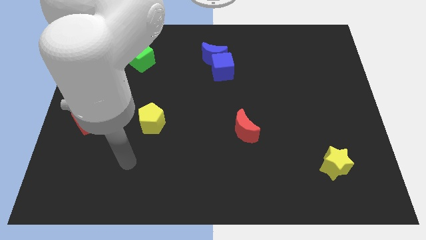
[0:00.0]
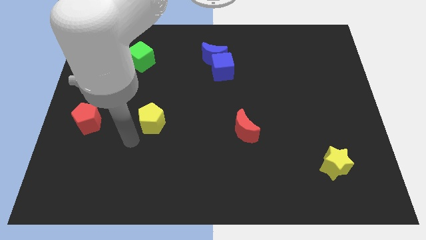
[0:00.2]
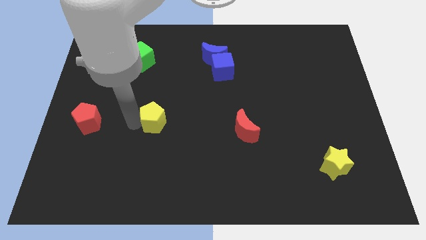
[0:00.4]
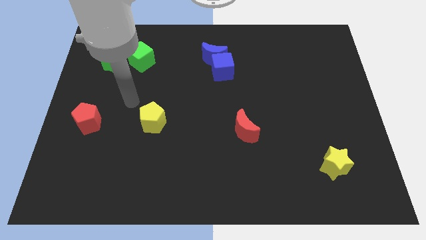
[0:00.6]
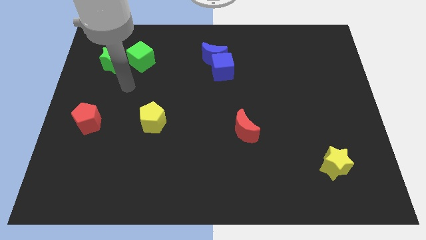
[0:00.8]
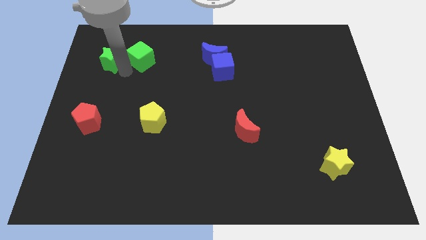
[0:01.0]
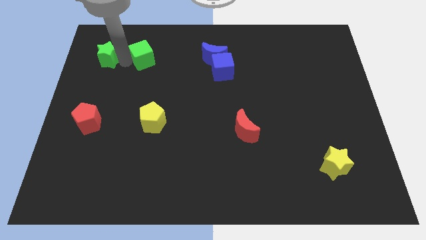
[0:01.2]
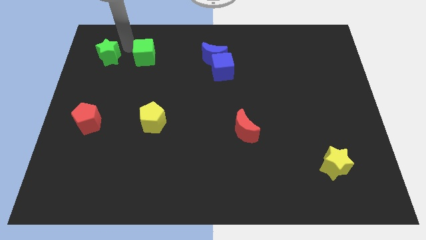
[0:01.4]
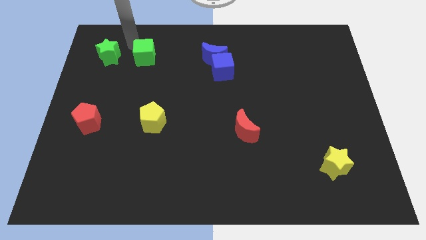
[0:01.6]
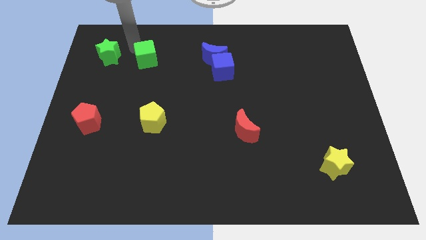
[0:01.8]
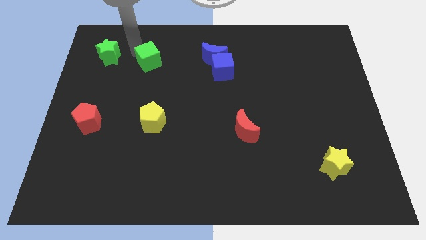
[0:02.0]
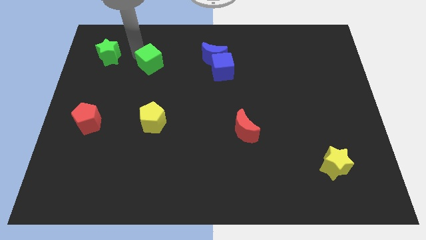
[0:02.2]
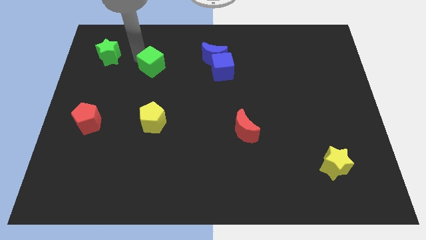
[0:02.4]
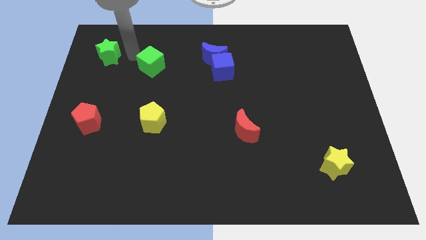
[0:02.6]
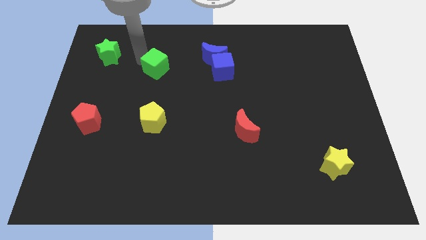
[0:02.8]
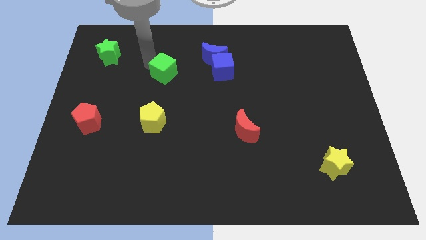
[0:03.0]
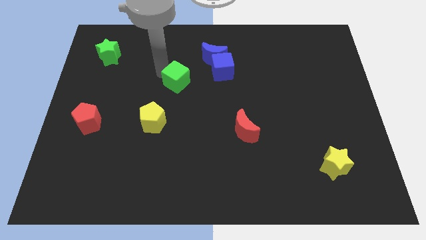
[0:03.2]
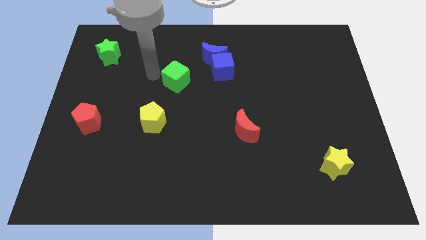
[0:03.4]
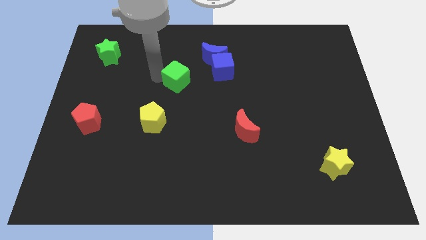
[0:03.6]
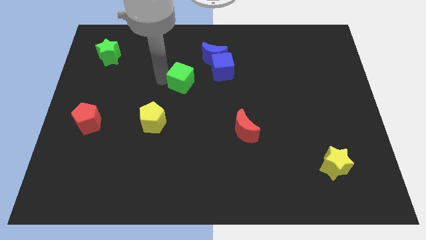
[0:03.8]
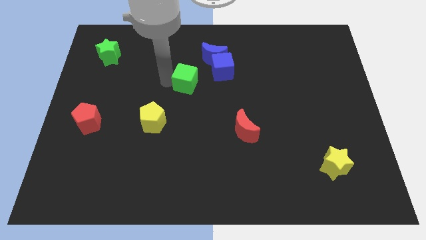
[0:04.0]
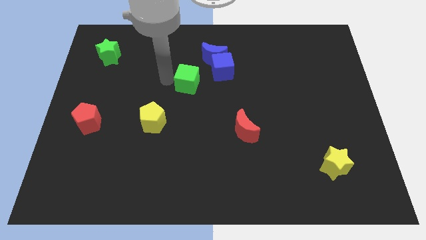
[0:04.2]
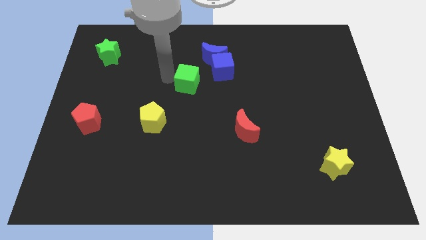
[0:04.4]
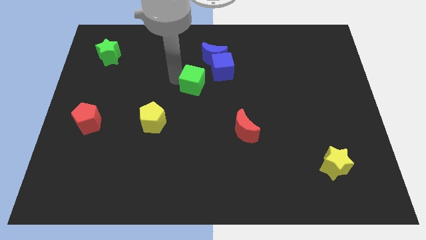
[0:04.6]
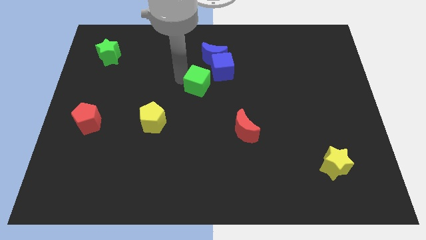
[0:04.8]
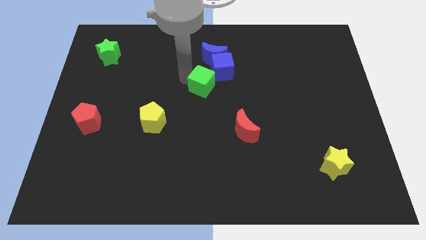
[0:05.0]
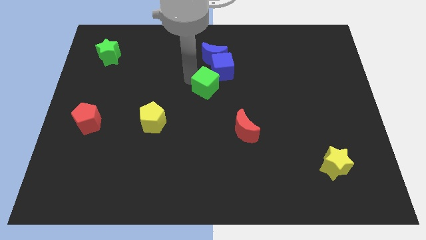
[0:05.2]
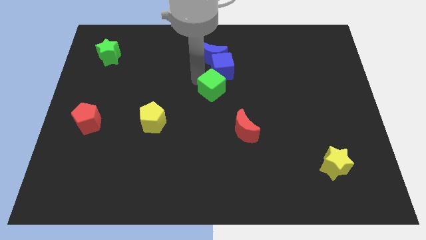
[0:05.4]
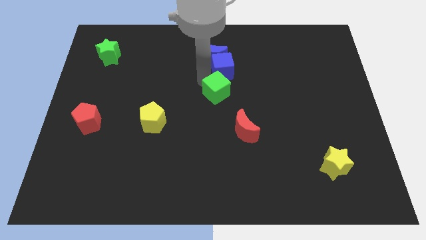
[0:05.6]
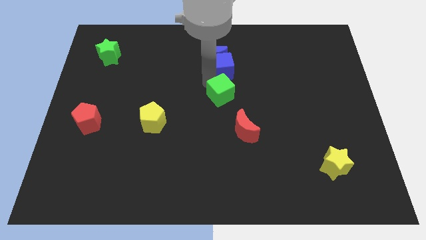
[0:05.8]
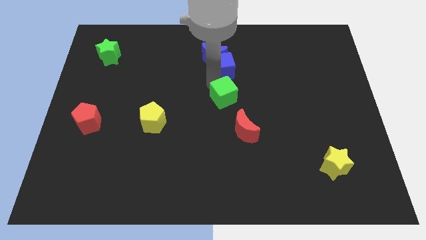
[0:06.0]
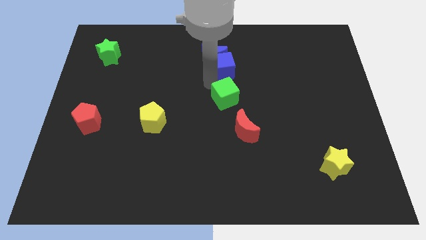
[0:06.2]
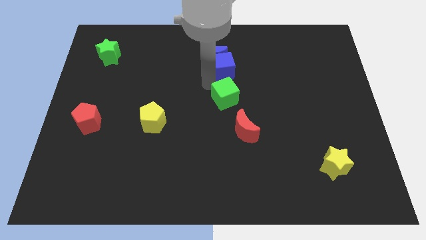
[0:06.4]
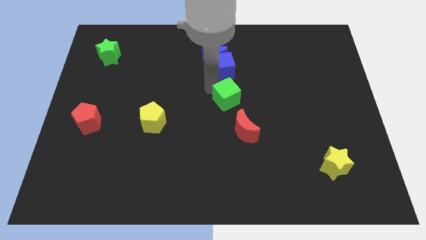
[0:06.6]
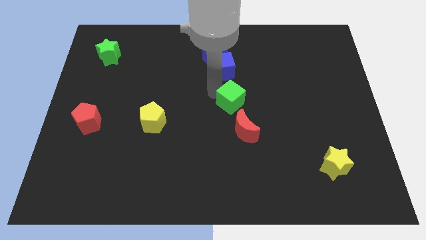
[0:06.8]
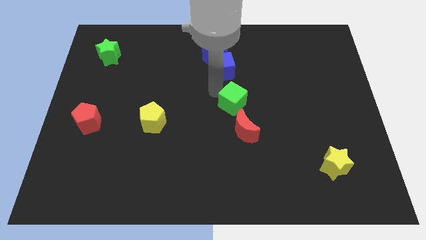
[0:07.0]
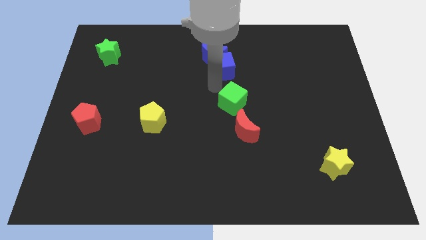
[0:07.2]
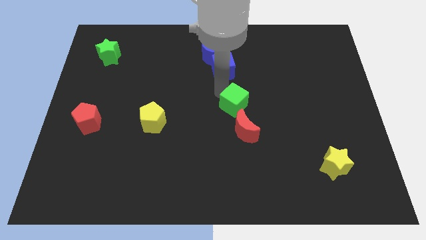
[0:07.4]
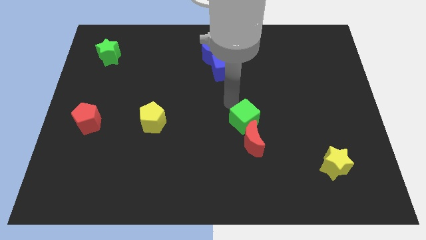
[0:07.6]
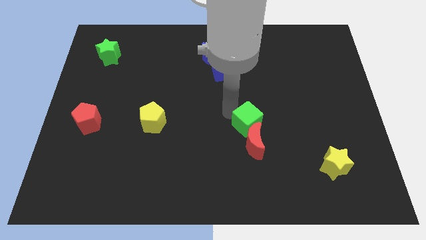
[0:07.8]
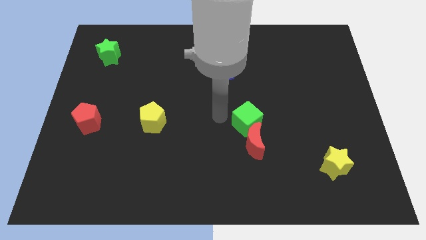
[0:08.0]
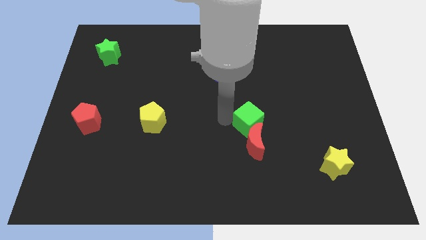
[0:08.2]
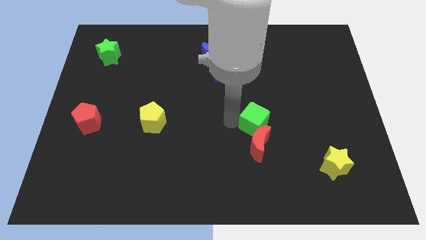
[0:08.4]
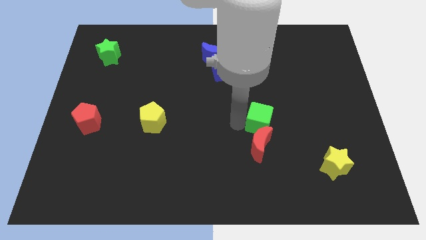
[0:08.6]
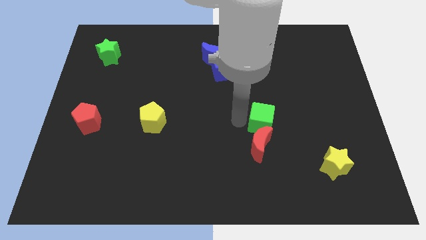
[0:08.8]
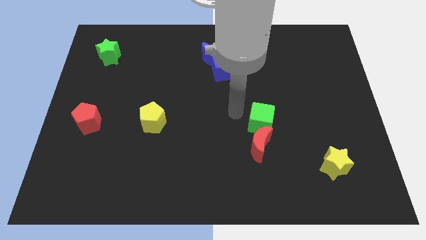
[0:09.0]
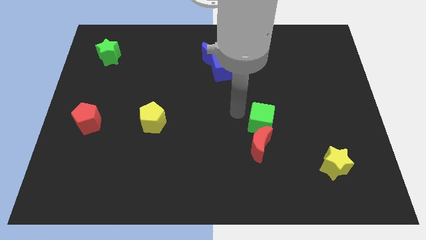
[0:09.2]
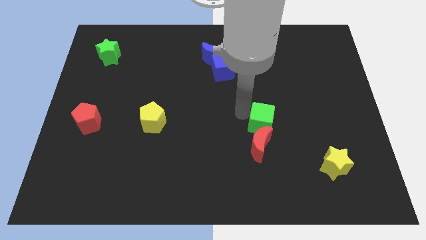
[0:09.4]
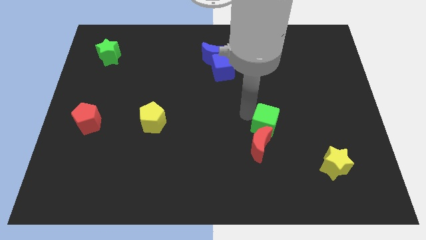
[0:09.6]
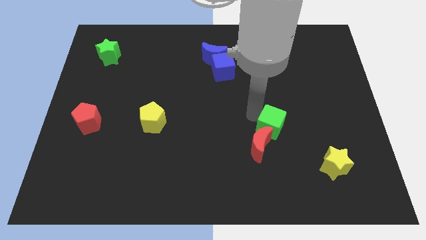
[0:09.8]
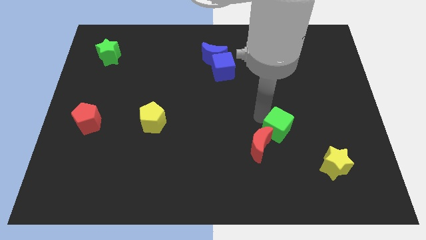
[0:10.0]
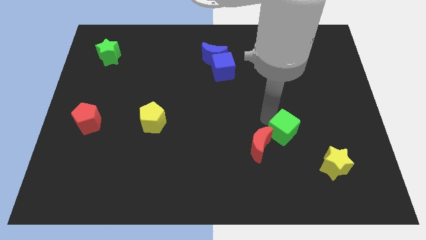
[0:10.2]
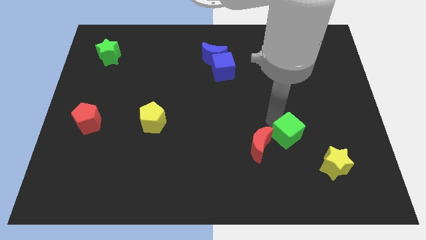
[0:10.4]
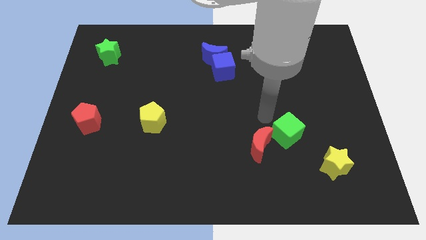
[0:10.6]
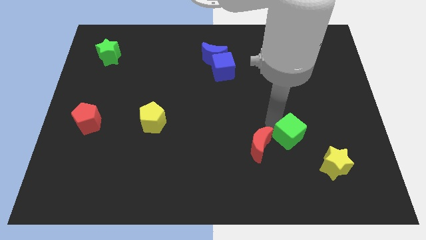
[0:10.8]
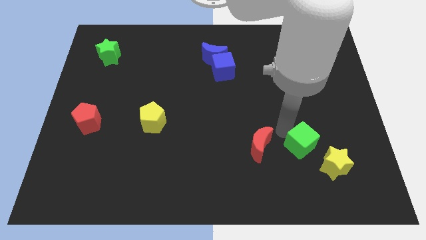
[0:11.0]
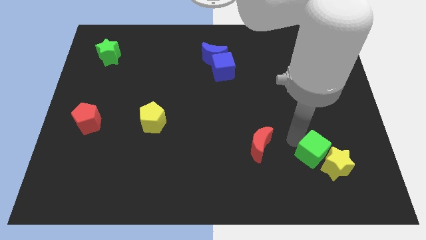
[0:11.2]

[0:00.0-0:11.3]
push the green cube to the yellow star

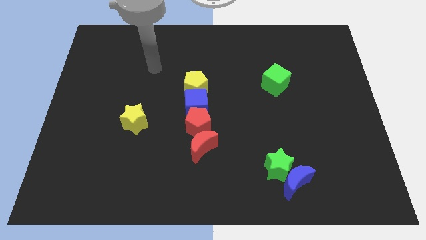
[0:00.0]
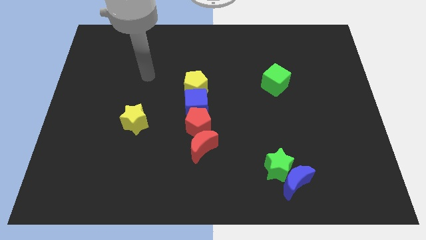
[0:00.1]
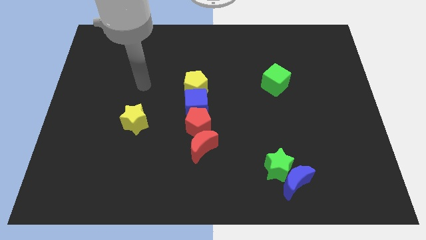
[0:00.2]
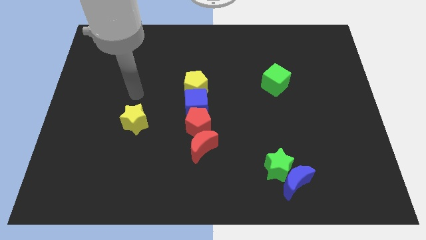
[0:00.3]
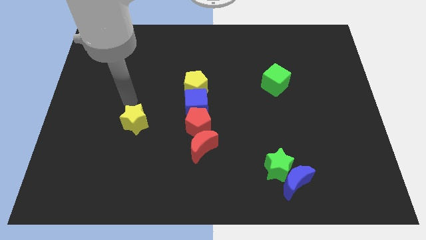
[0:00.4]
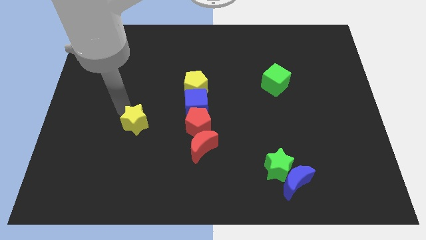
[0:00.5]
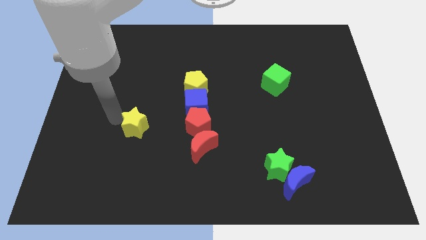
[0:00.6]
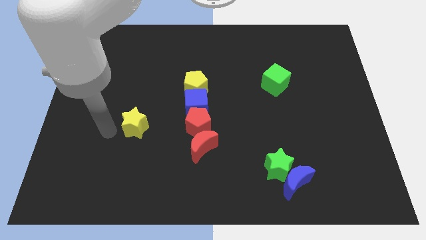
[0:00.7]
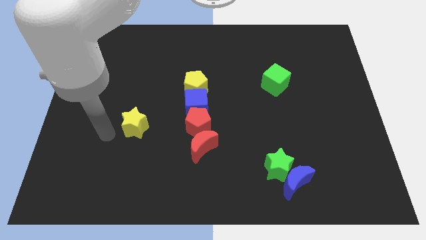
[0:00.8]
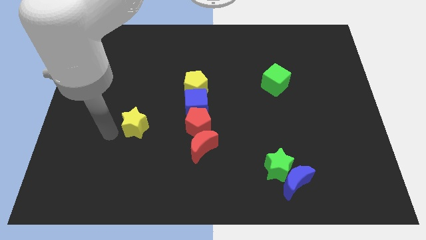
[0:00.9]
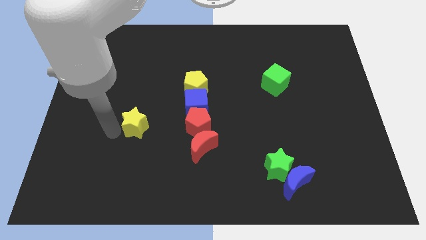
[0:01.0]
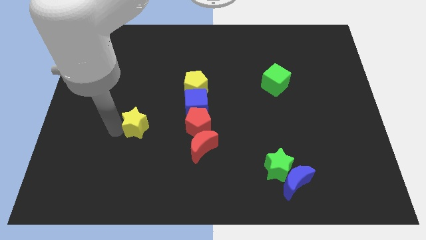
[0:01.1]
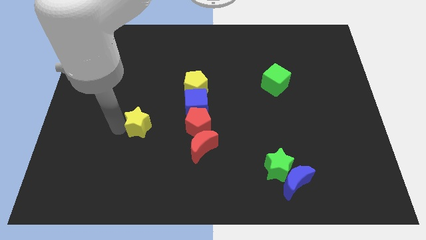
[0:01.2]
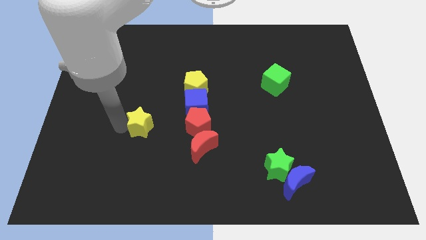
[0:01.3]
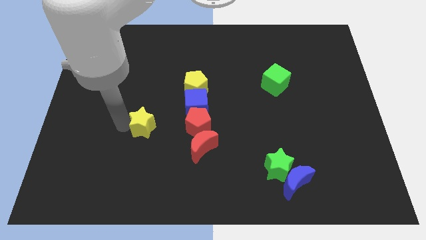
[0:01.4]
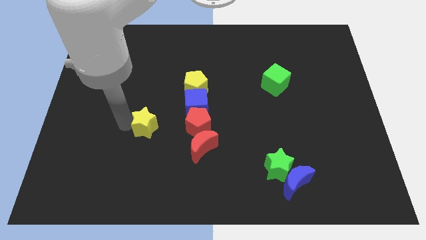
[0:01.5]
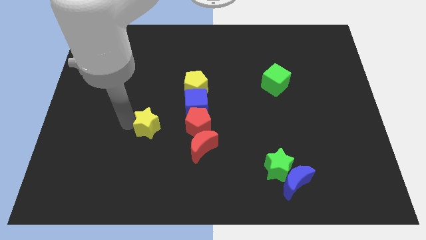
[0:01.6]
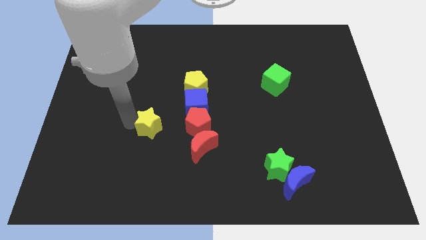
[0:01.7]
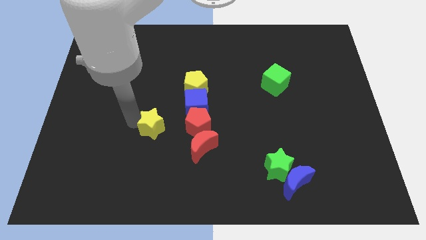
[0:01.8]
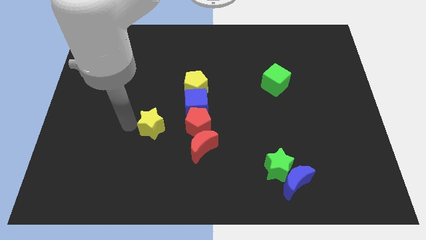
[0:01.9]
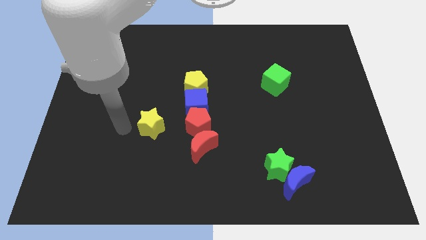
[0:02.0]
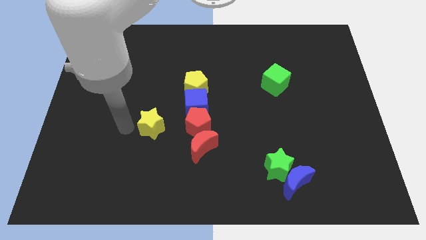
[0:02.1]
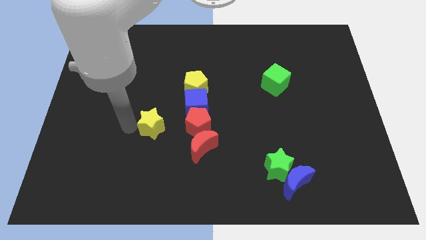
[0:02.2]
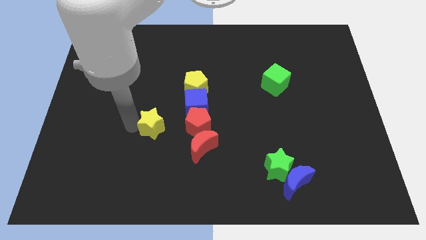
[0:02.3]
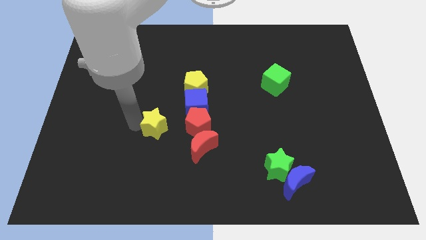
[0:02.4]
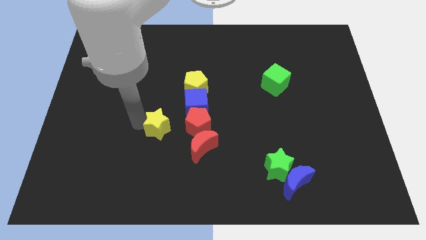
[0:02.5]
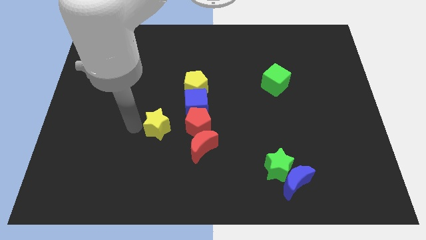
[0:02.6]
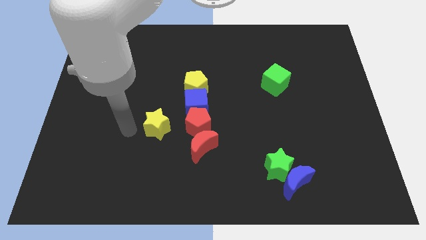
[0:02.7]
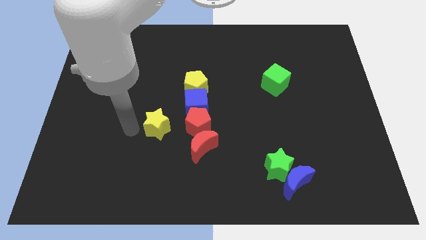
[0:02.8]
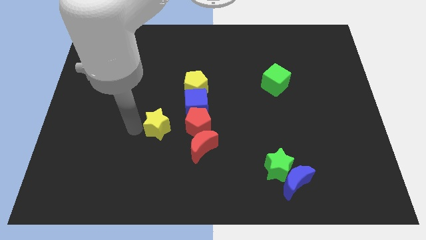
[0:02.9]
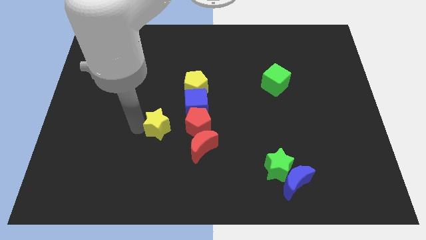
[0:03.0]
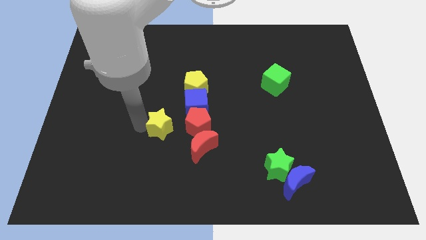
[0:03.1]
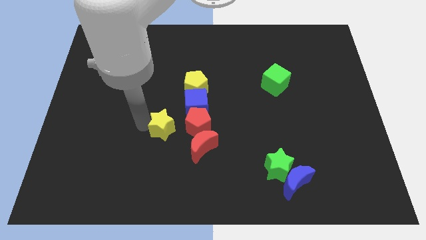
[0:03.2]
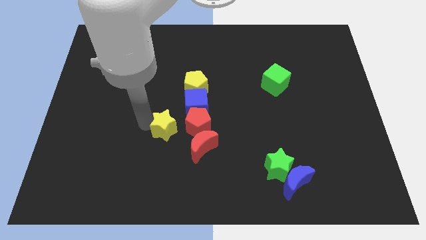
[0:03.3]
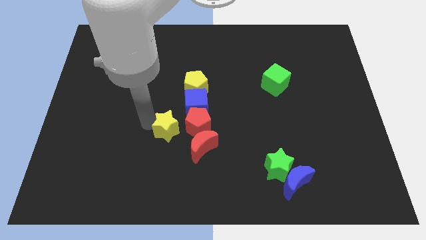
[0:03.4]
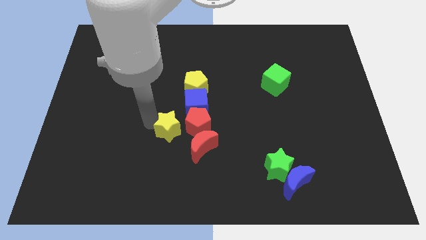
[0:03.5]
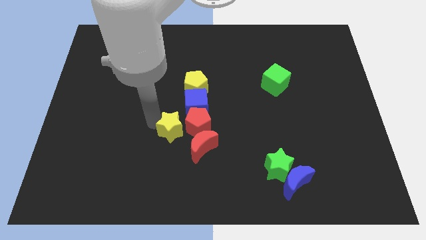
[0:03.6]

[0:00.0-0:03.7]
push the yellow star to the red pentagon
